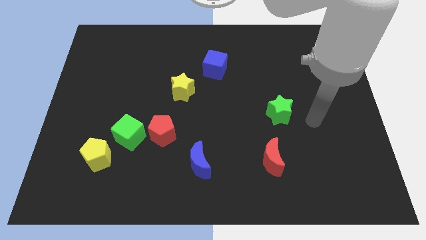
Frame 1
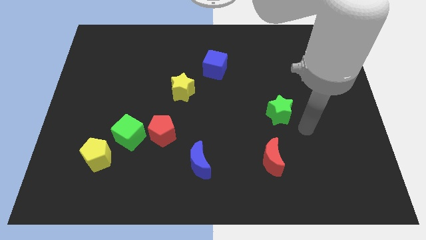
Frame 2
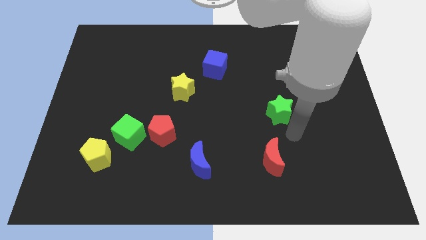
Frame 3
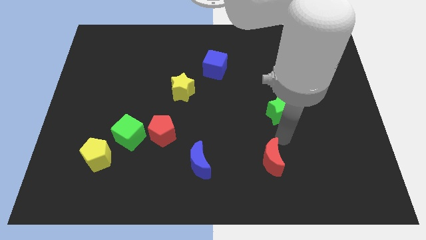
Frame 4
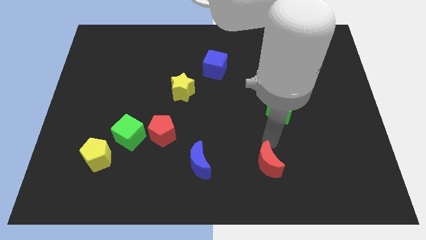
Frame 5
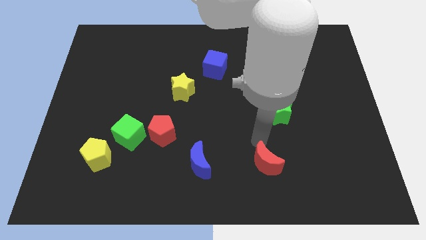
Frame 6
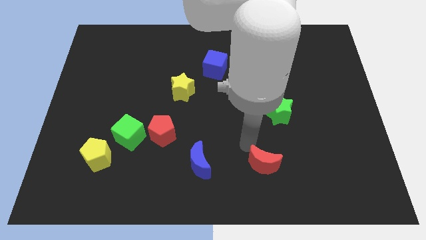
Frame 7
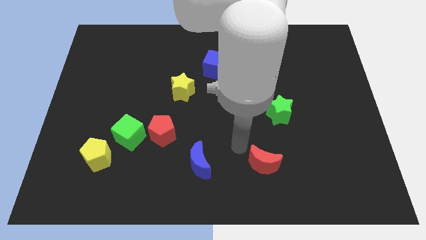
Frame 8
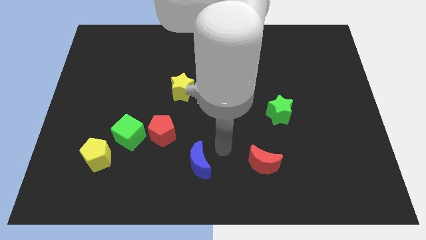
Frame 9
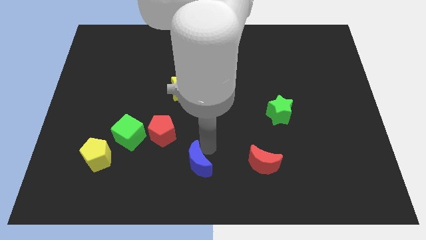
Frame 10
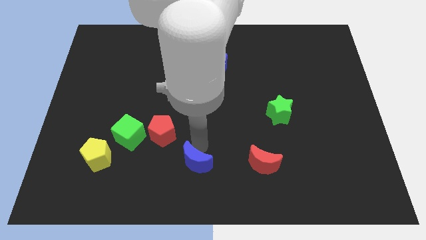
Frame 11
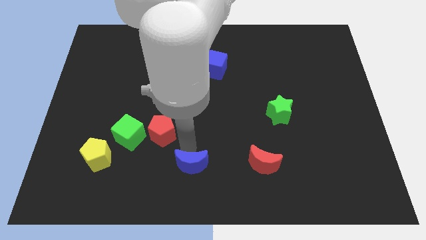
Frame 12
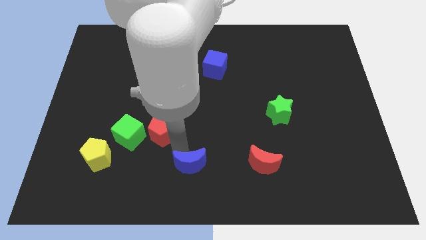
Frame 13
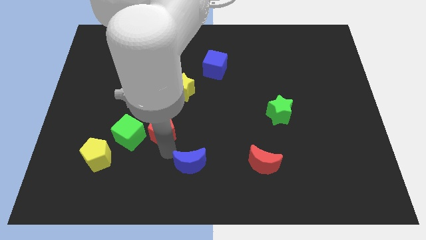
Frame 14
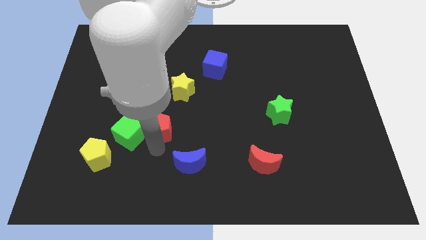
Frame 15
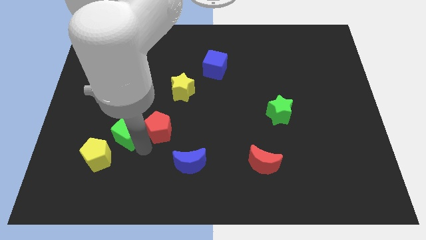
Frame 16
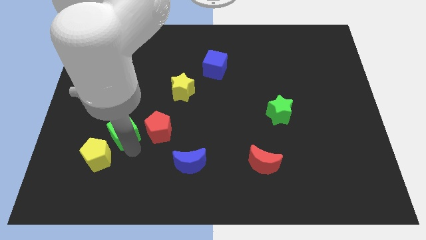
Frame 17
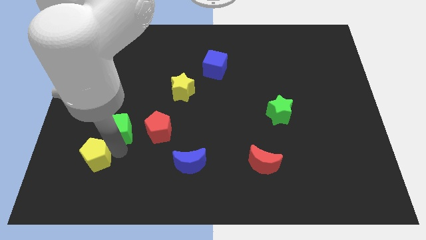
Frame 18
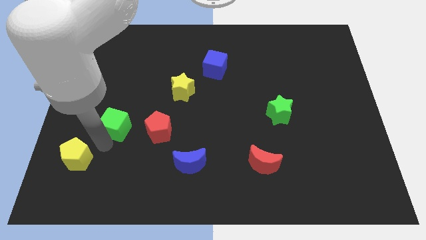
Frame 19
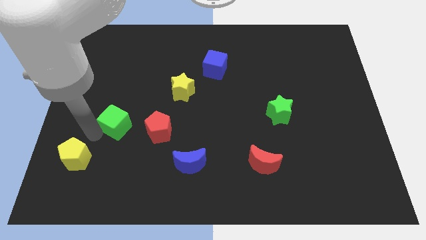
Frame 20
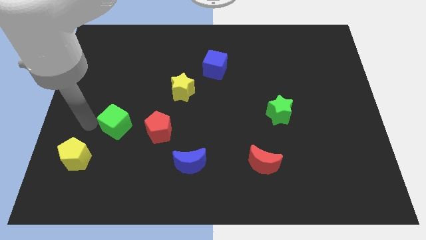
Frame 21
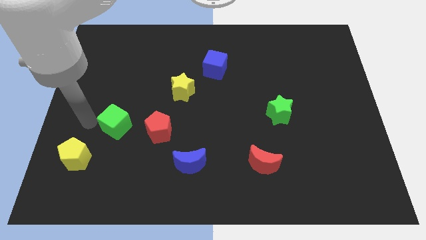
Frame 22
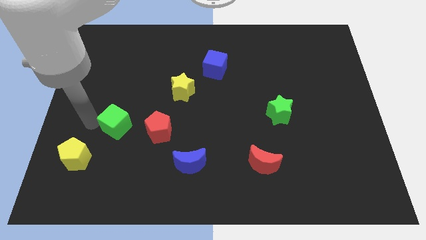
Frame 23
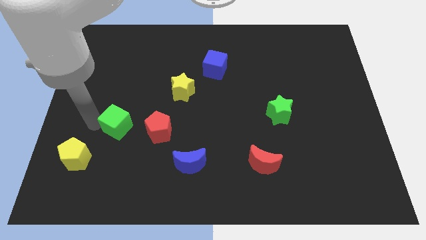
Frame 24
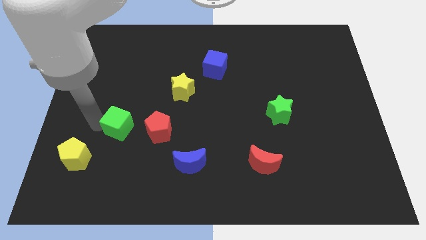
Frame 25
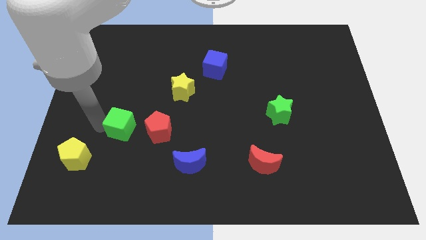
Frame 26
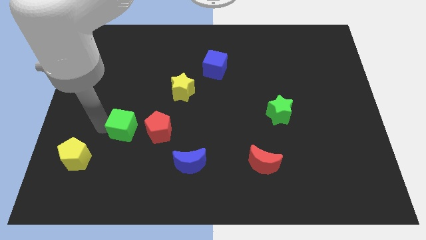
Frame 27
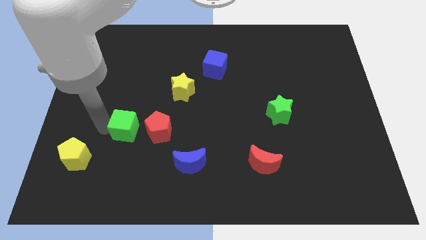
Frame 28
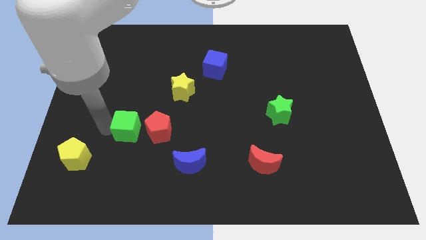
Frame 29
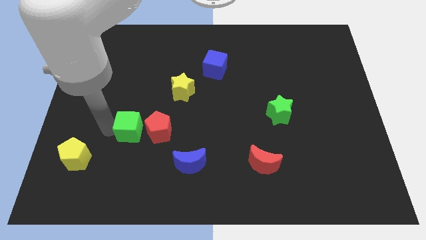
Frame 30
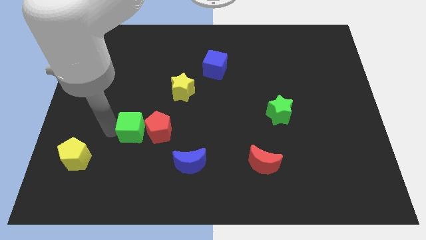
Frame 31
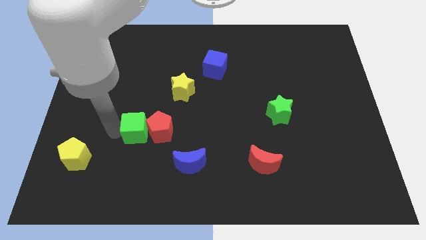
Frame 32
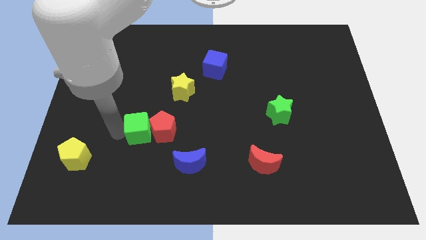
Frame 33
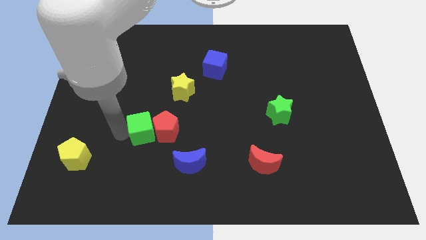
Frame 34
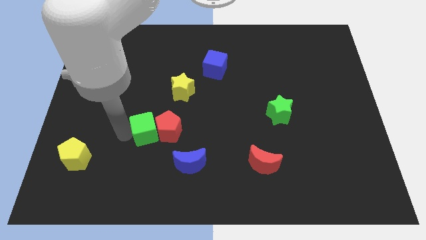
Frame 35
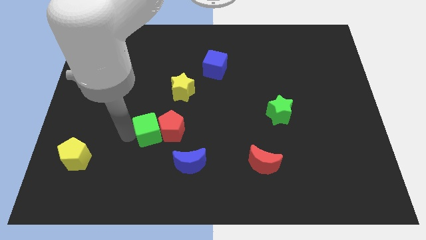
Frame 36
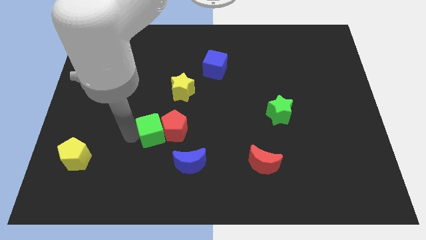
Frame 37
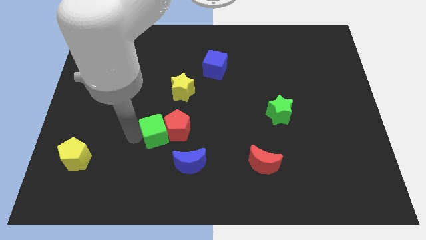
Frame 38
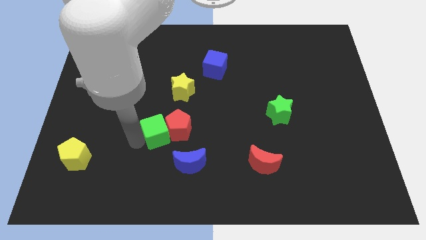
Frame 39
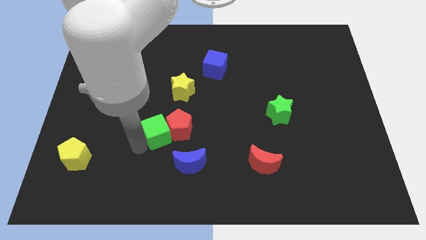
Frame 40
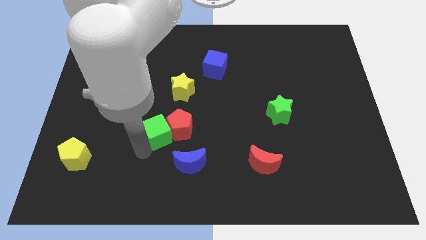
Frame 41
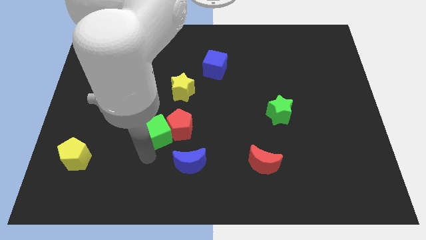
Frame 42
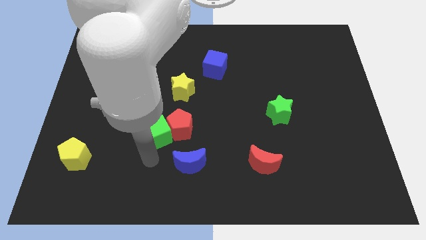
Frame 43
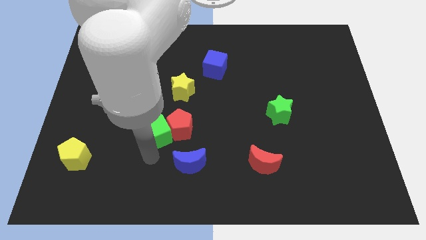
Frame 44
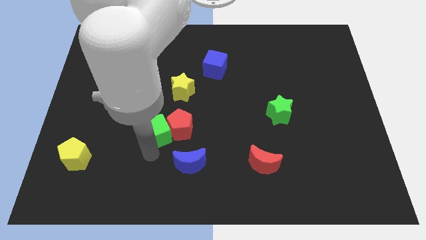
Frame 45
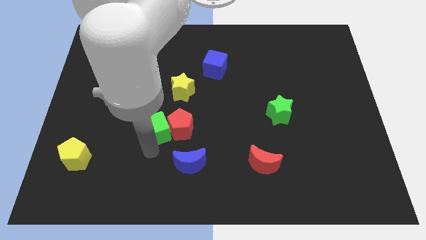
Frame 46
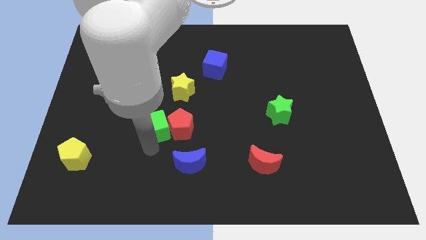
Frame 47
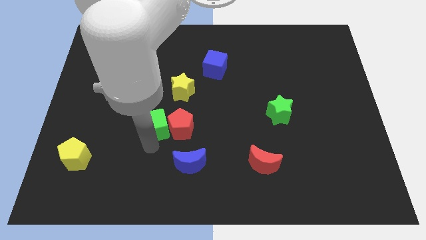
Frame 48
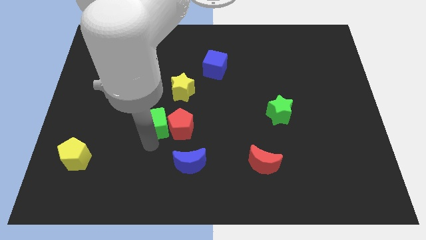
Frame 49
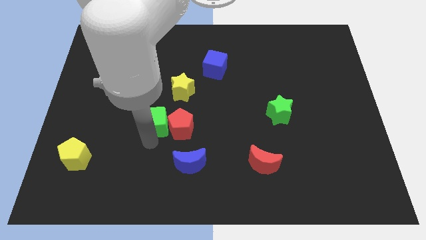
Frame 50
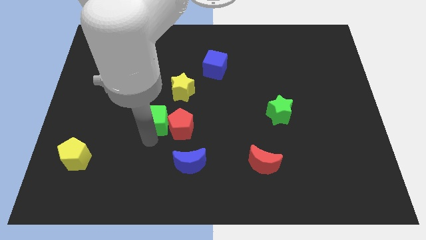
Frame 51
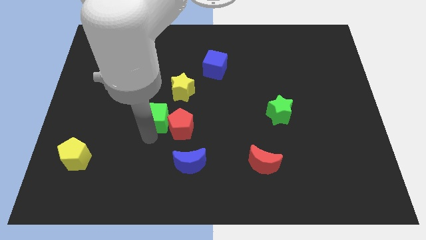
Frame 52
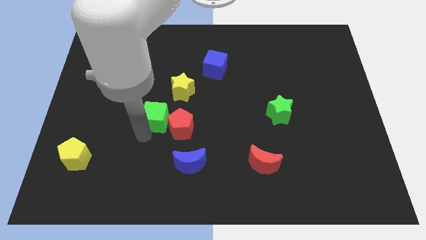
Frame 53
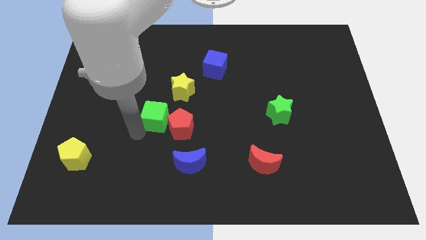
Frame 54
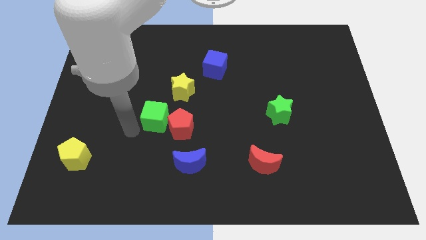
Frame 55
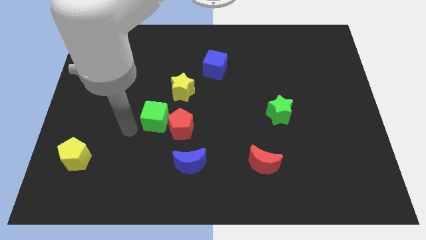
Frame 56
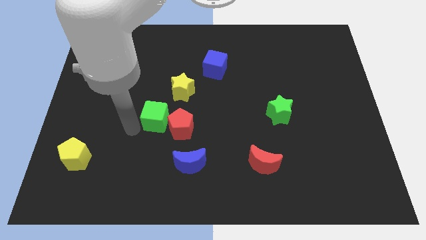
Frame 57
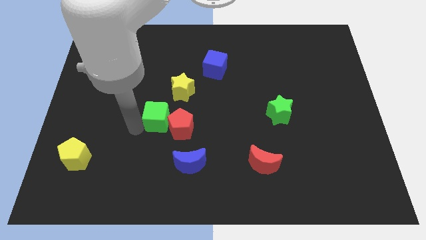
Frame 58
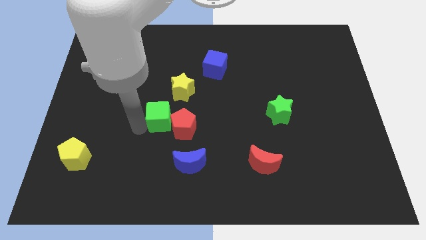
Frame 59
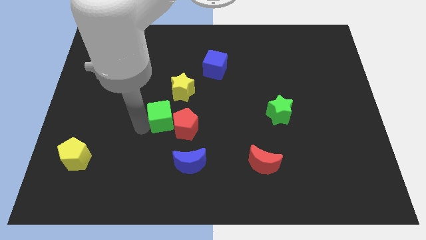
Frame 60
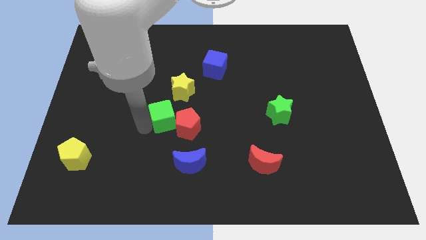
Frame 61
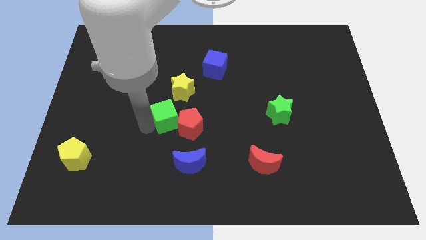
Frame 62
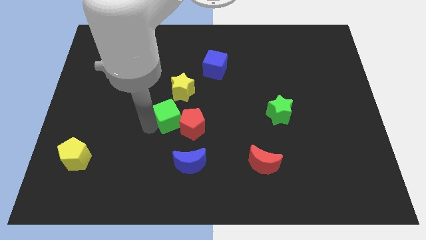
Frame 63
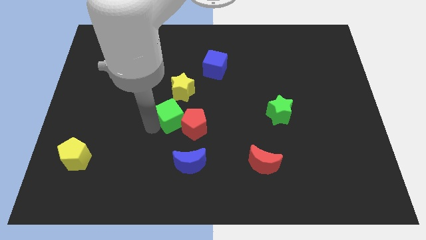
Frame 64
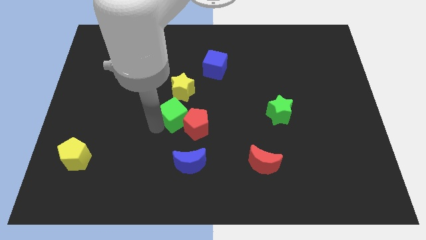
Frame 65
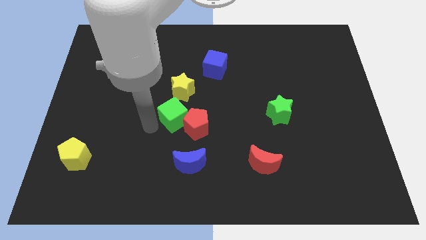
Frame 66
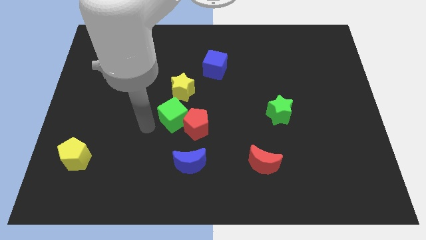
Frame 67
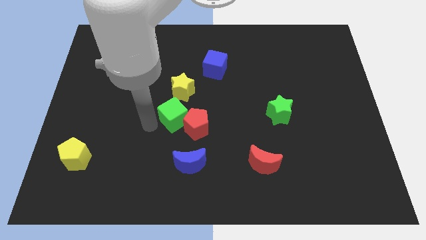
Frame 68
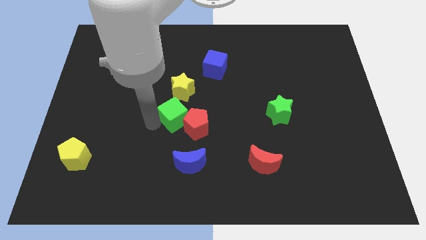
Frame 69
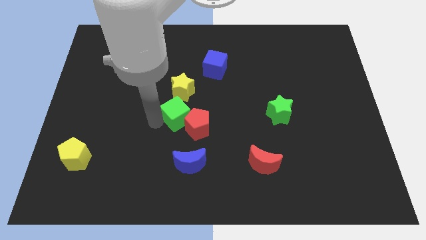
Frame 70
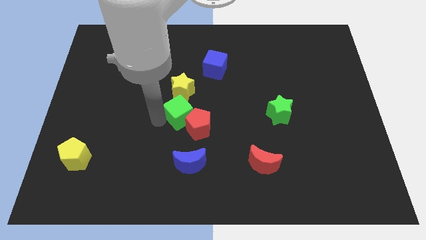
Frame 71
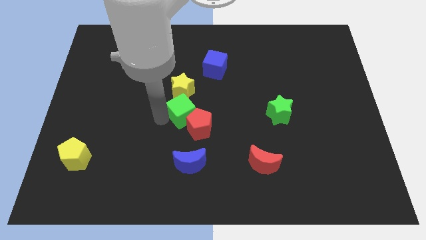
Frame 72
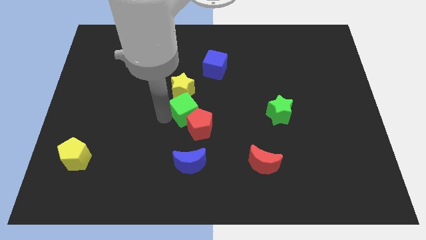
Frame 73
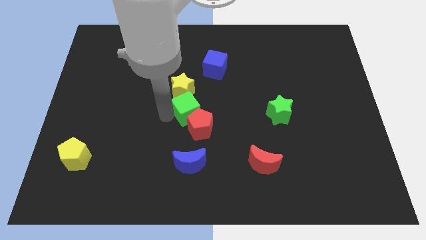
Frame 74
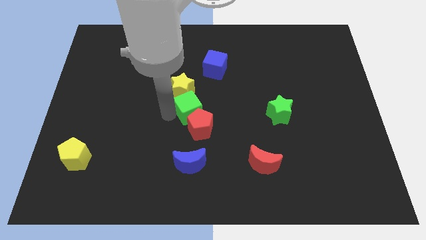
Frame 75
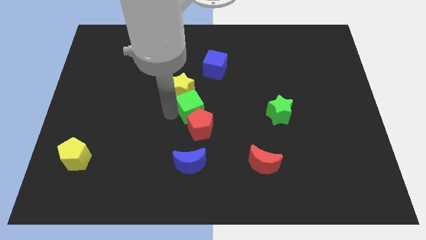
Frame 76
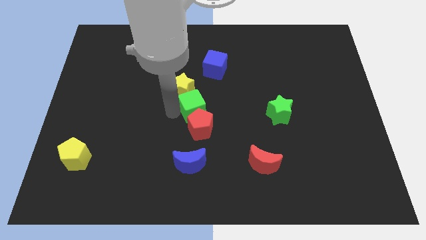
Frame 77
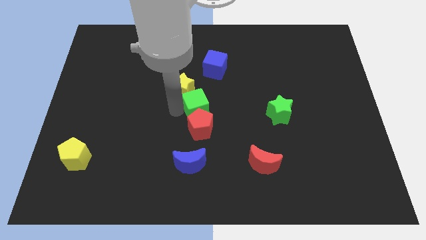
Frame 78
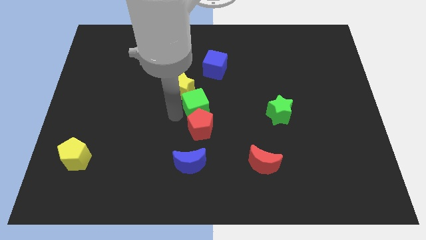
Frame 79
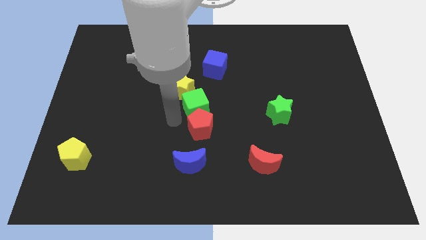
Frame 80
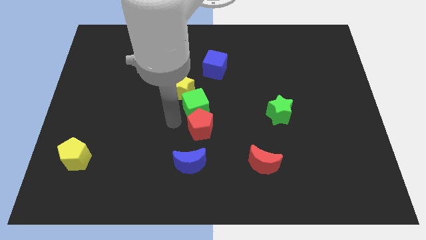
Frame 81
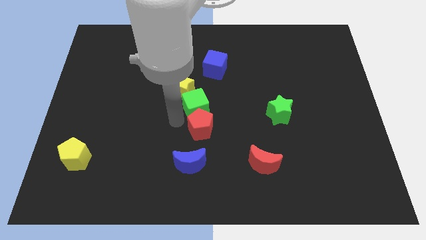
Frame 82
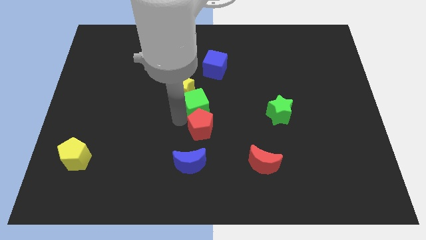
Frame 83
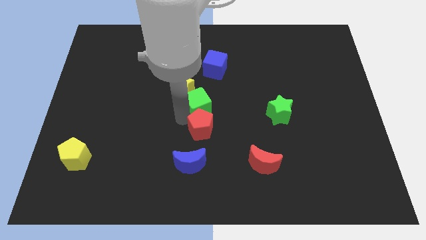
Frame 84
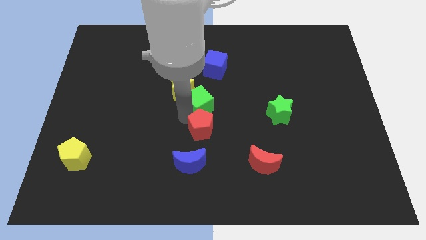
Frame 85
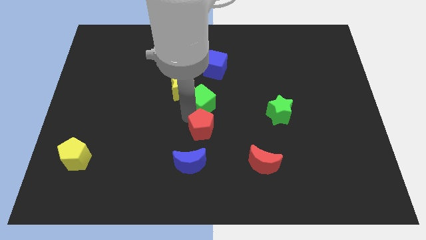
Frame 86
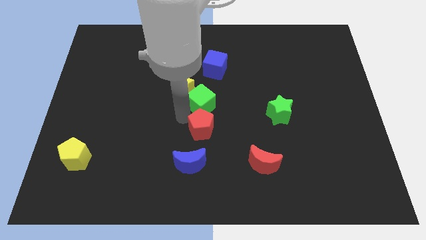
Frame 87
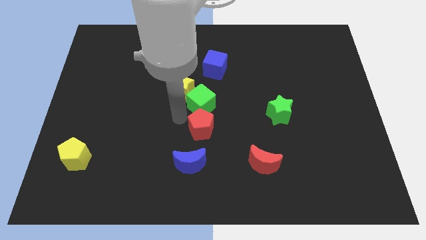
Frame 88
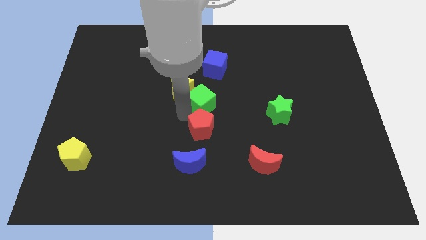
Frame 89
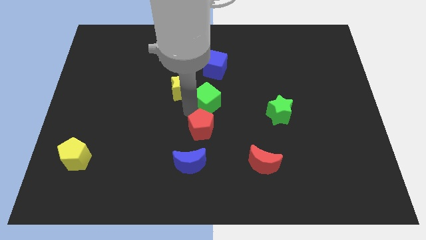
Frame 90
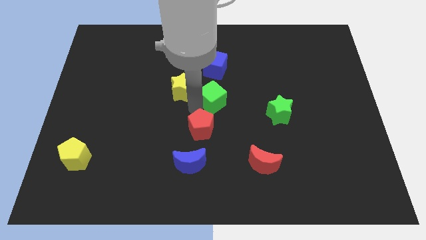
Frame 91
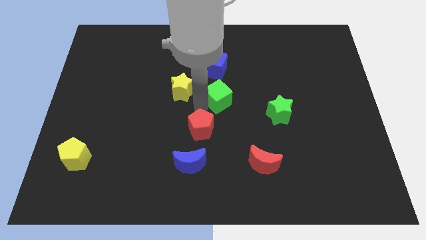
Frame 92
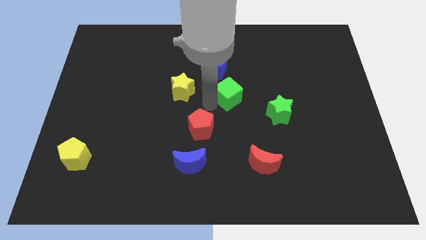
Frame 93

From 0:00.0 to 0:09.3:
slide the green cube up and right
